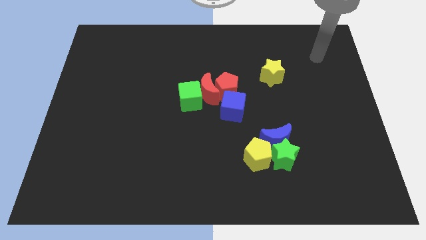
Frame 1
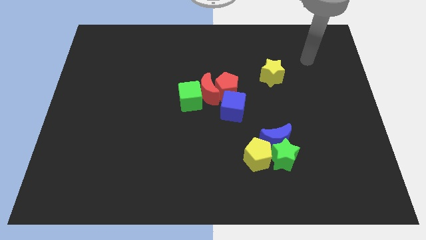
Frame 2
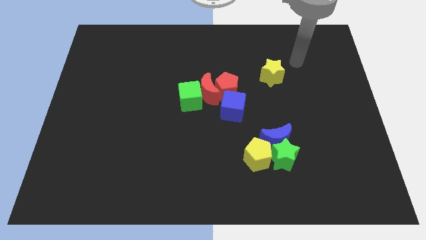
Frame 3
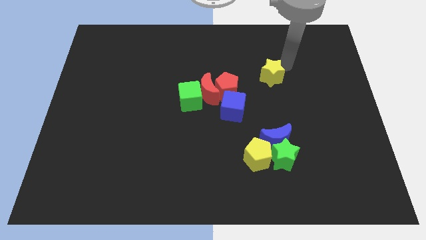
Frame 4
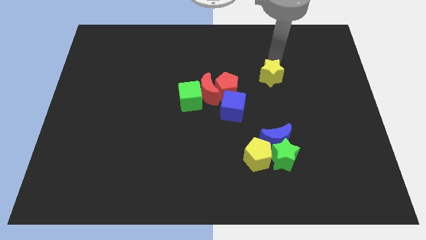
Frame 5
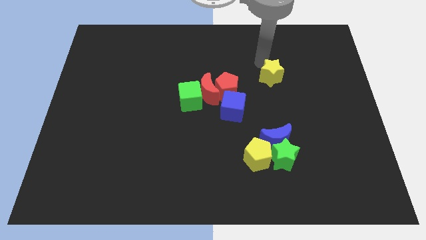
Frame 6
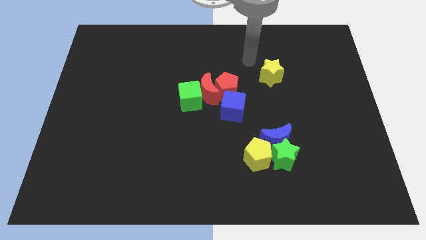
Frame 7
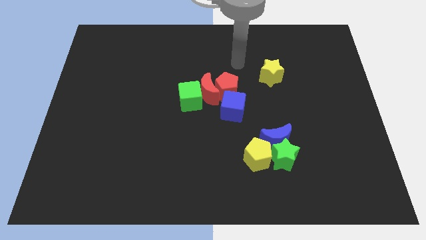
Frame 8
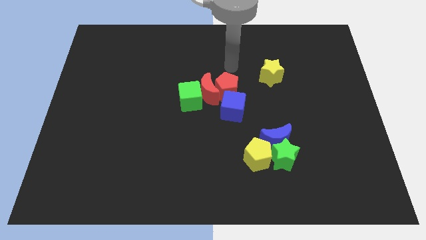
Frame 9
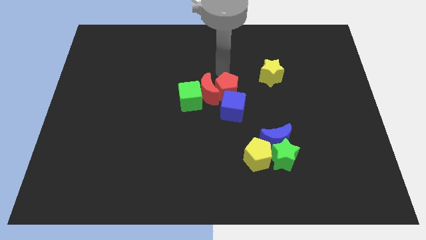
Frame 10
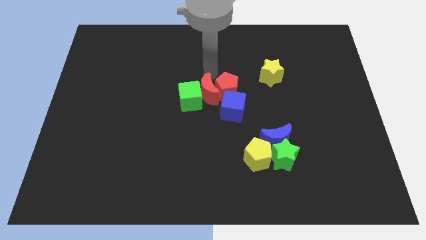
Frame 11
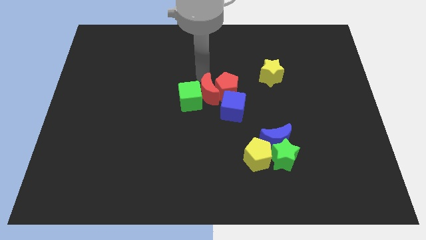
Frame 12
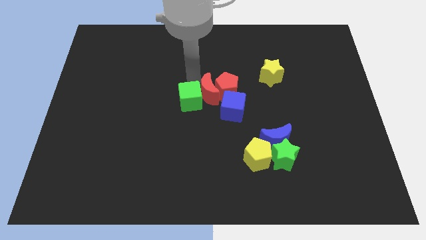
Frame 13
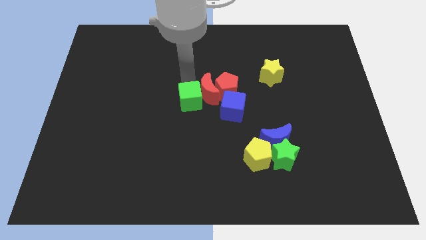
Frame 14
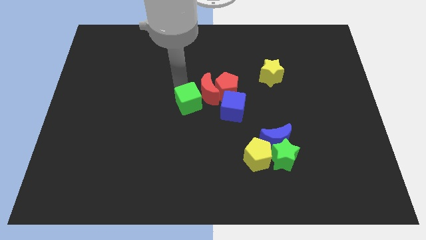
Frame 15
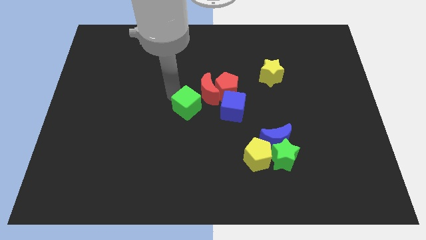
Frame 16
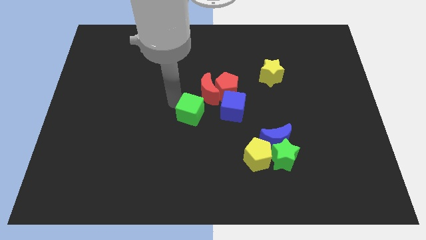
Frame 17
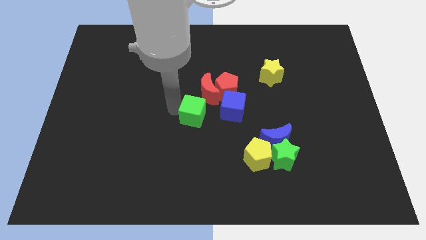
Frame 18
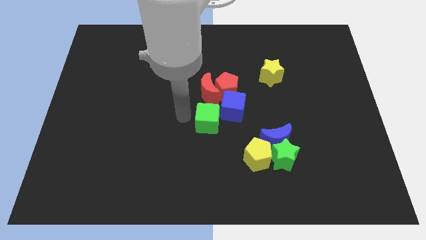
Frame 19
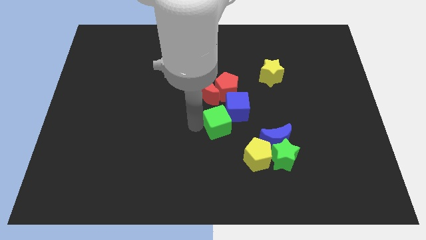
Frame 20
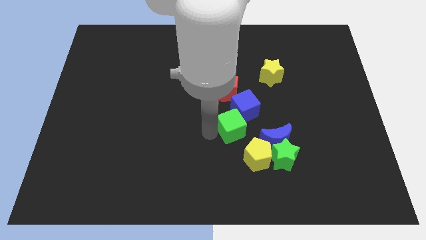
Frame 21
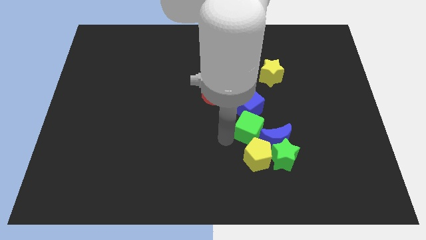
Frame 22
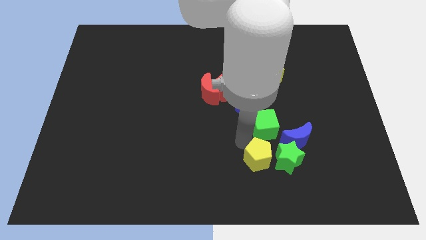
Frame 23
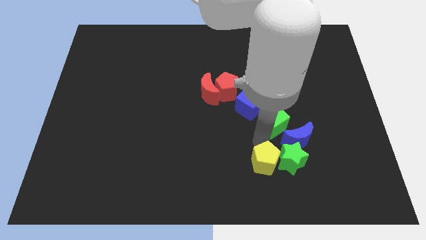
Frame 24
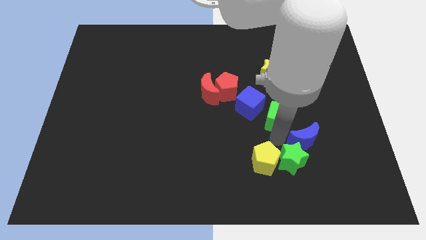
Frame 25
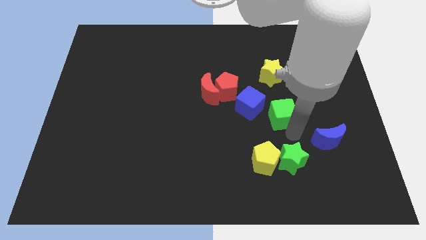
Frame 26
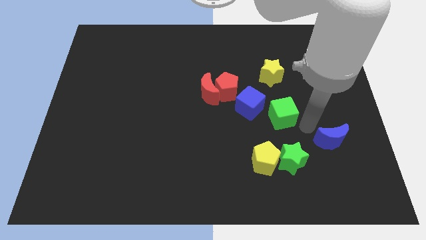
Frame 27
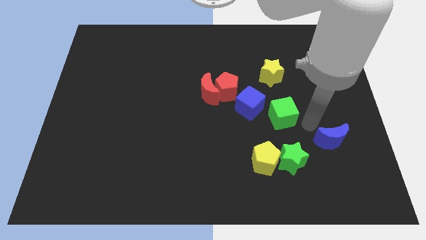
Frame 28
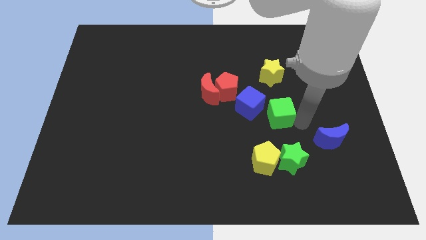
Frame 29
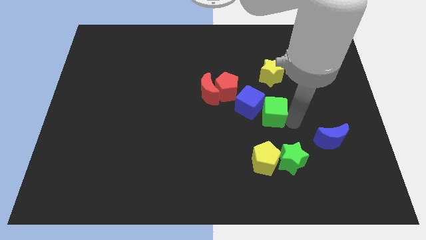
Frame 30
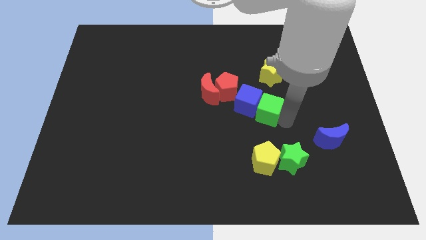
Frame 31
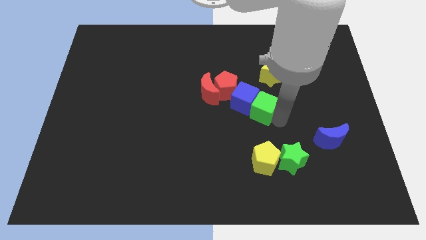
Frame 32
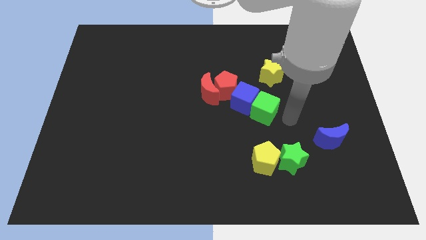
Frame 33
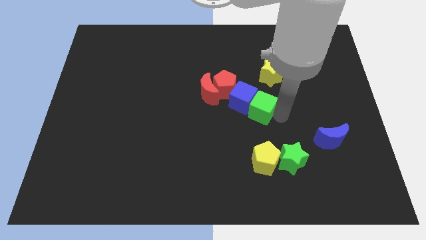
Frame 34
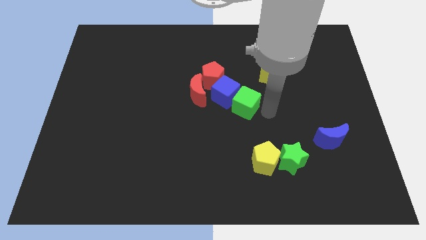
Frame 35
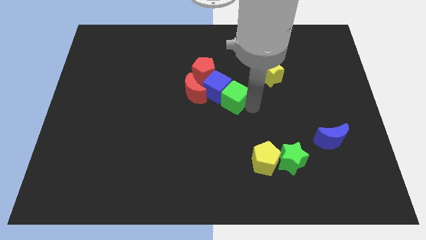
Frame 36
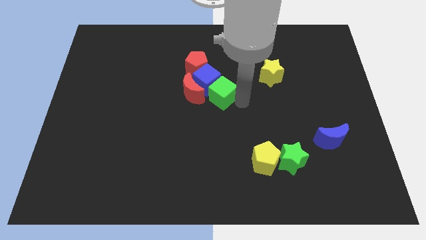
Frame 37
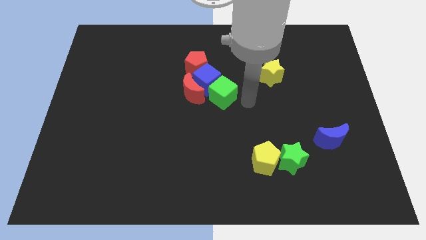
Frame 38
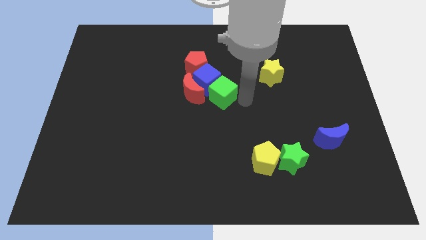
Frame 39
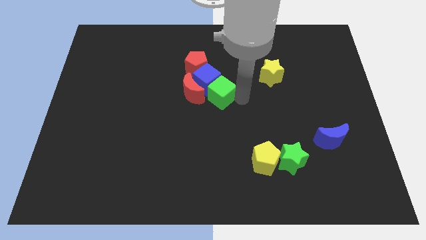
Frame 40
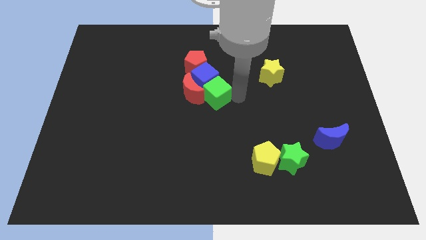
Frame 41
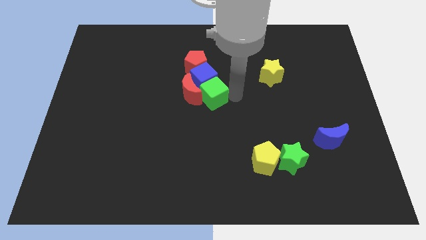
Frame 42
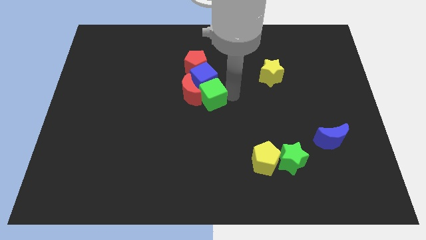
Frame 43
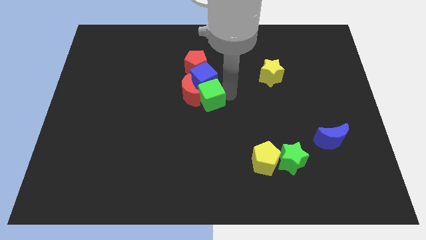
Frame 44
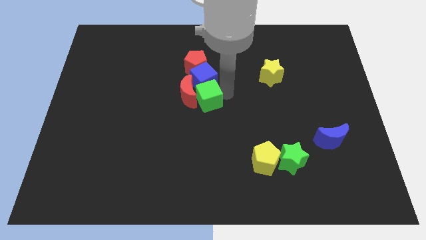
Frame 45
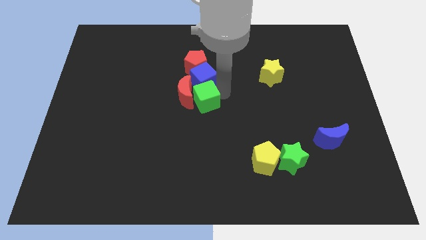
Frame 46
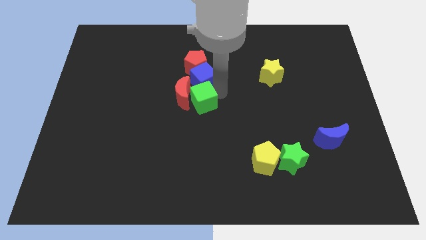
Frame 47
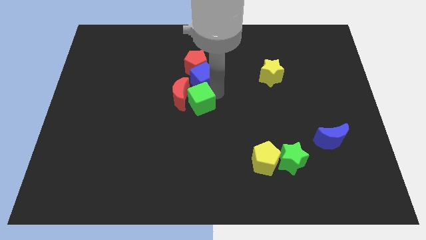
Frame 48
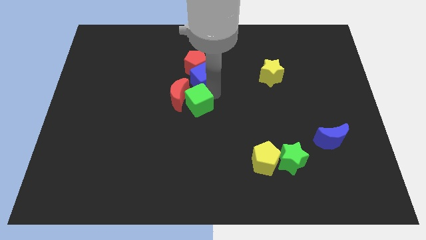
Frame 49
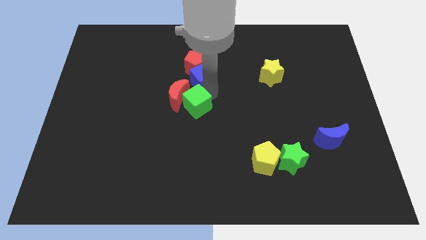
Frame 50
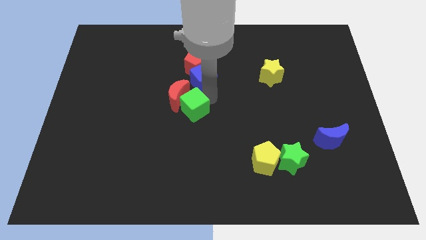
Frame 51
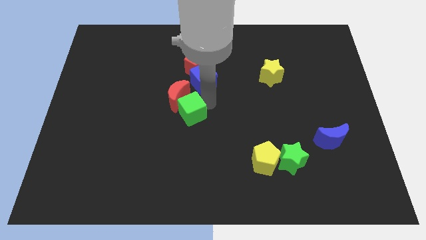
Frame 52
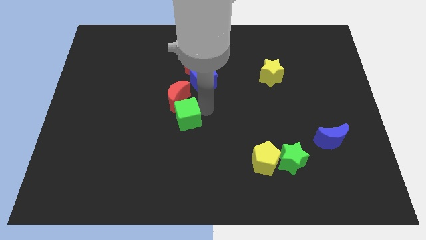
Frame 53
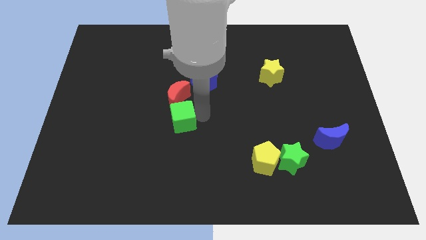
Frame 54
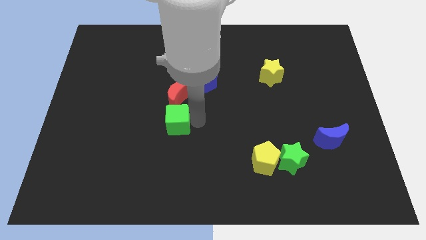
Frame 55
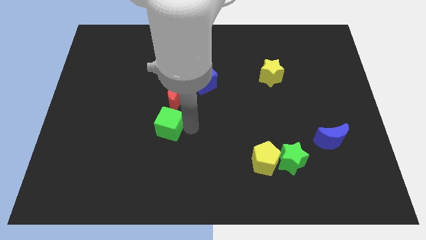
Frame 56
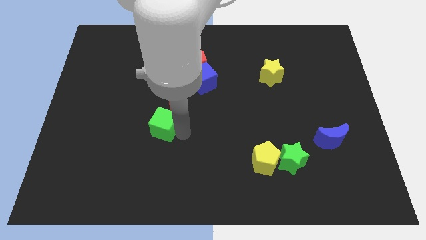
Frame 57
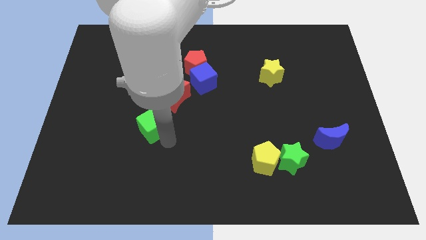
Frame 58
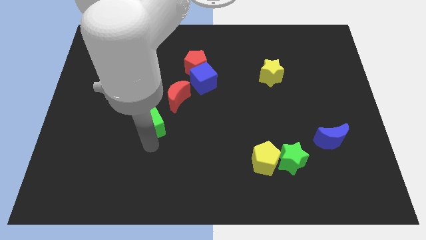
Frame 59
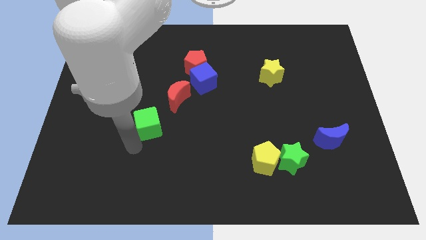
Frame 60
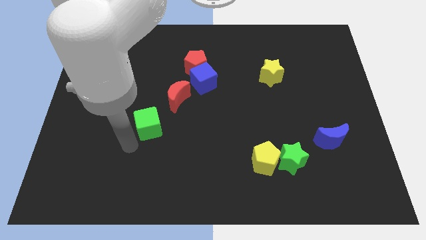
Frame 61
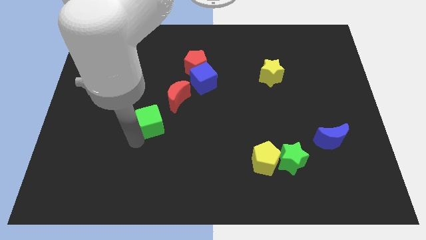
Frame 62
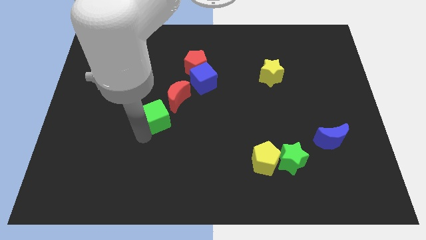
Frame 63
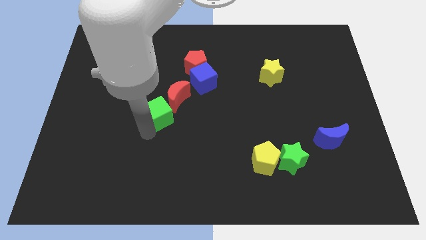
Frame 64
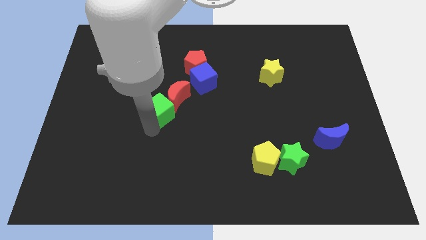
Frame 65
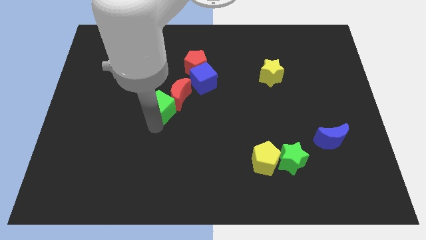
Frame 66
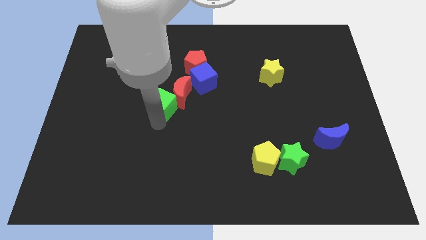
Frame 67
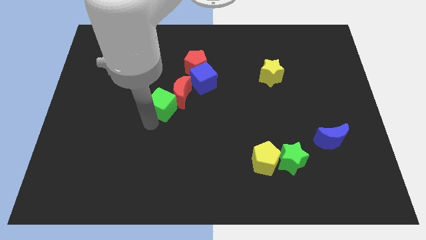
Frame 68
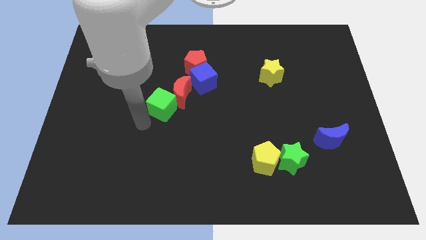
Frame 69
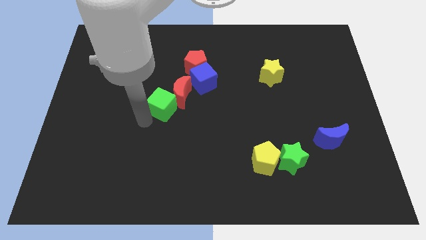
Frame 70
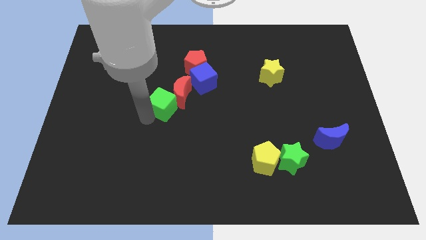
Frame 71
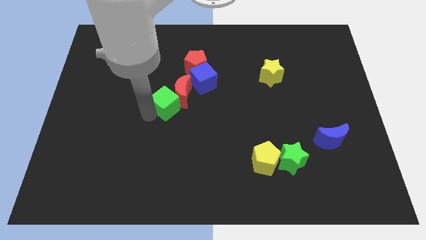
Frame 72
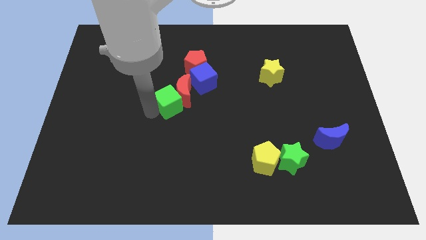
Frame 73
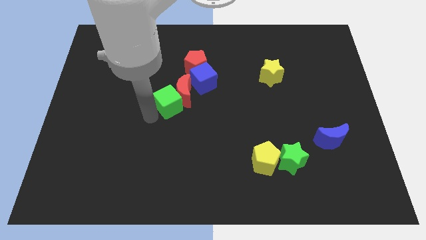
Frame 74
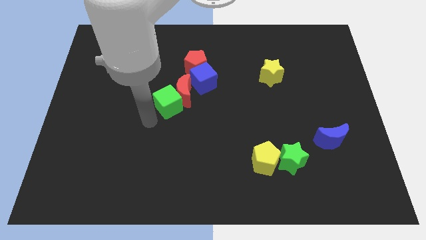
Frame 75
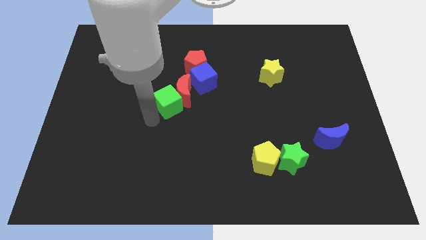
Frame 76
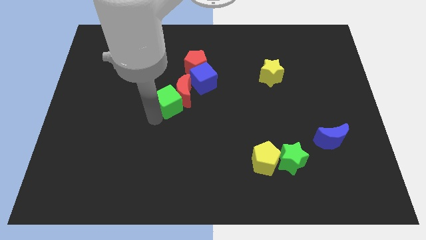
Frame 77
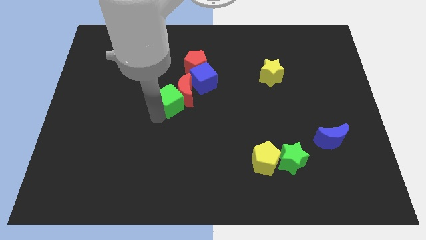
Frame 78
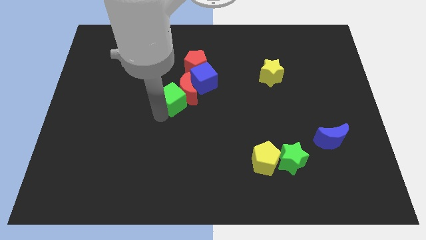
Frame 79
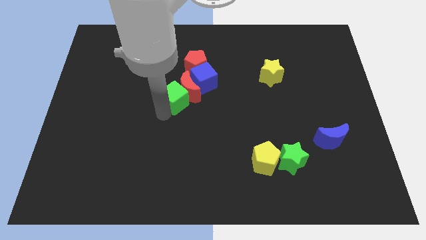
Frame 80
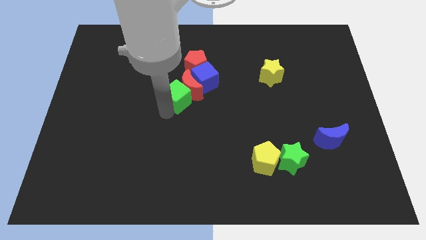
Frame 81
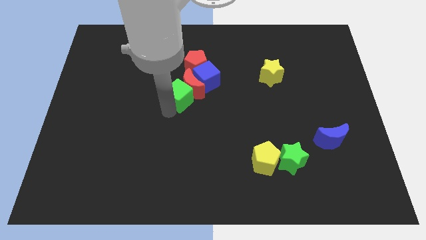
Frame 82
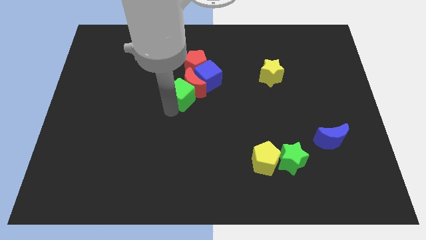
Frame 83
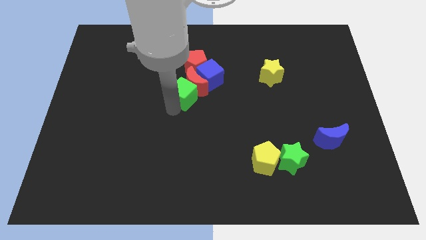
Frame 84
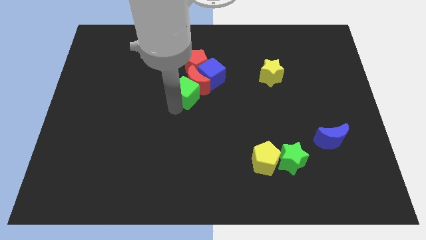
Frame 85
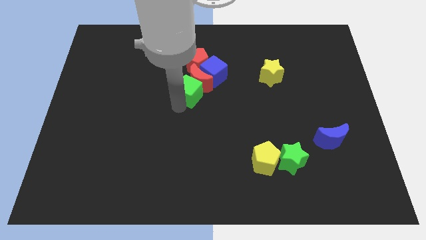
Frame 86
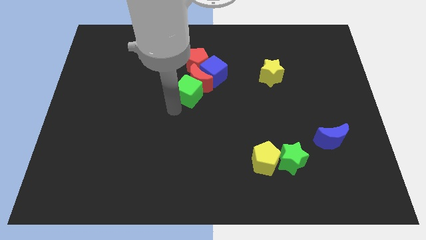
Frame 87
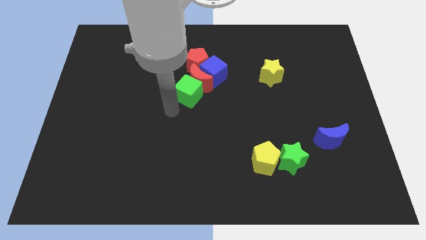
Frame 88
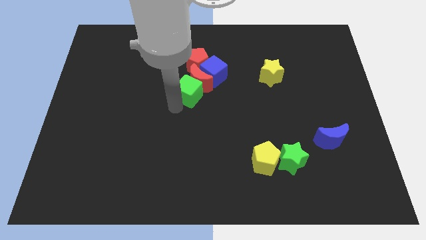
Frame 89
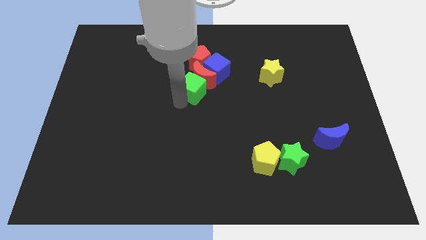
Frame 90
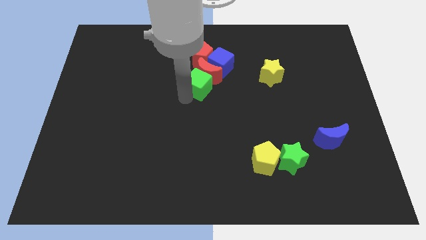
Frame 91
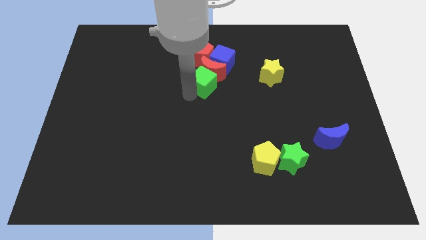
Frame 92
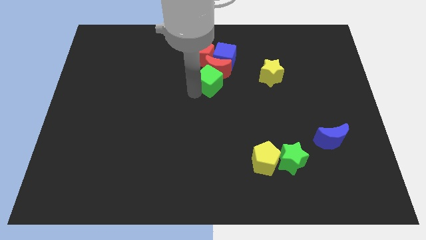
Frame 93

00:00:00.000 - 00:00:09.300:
move the green cube up and to the right a bit
